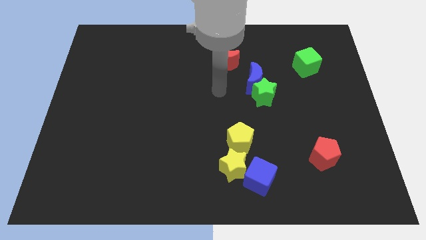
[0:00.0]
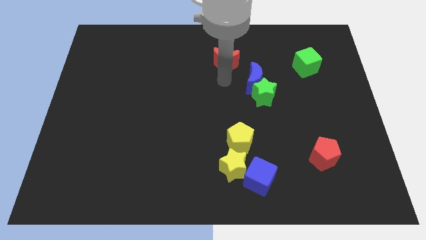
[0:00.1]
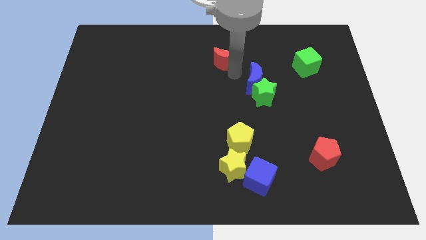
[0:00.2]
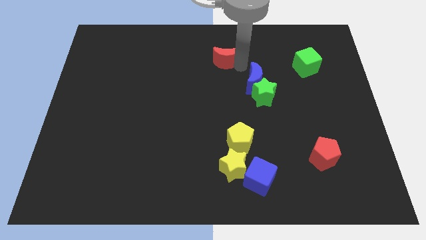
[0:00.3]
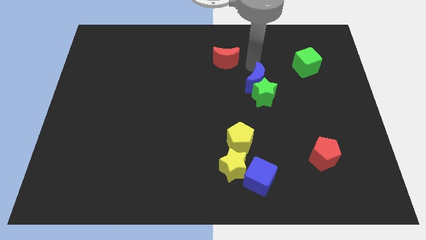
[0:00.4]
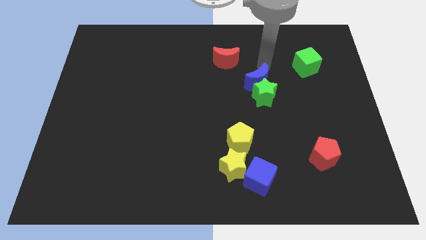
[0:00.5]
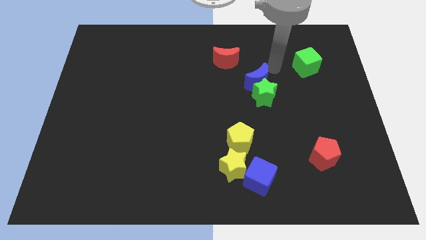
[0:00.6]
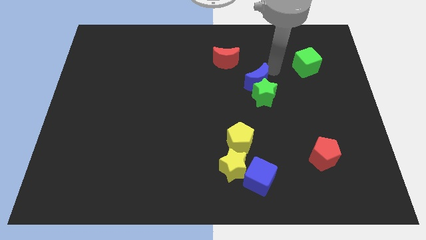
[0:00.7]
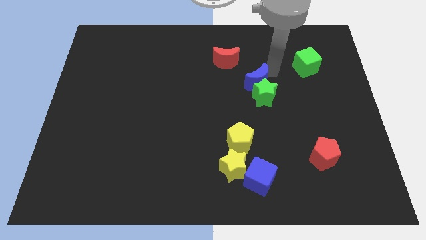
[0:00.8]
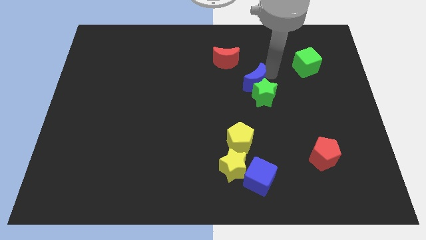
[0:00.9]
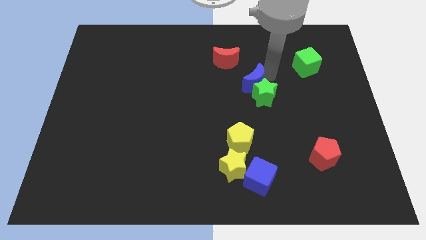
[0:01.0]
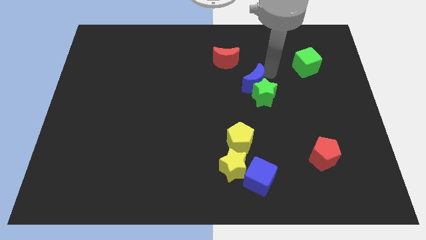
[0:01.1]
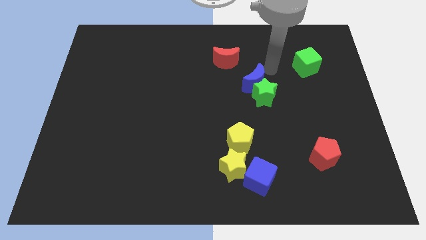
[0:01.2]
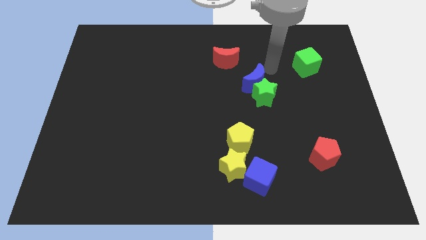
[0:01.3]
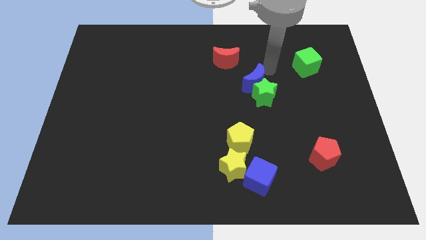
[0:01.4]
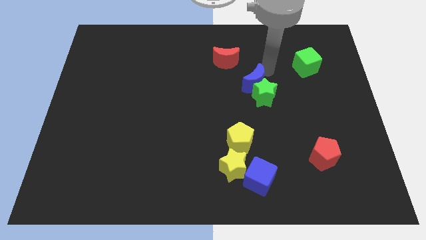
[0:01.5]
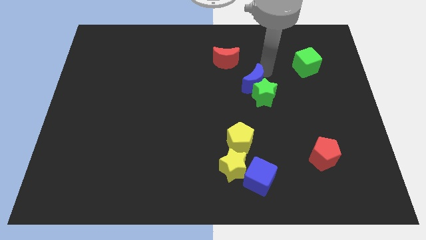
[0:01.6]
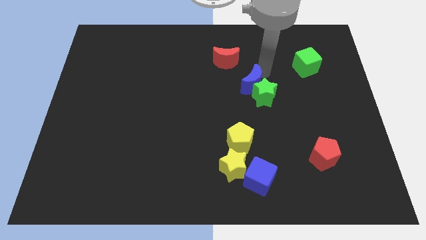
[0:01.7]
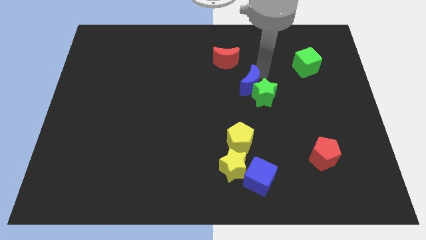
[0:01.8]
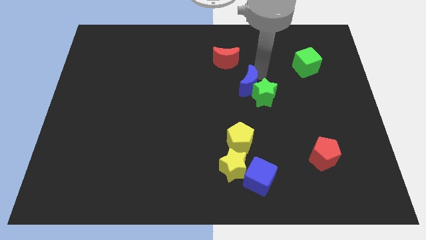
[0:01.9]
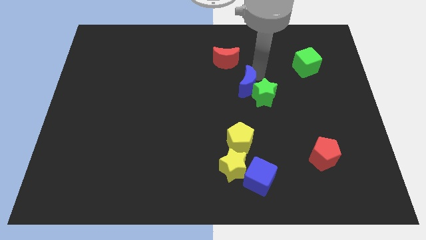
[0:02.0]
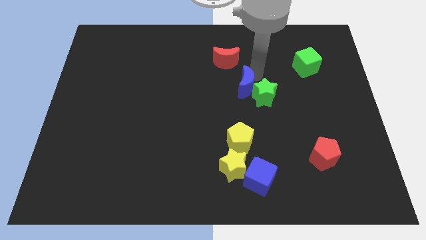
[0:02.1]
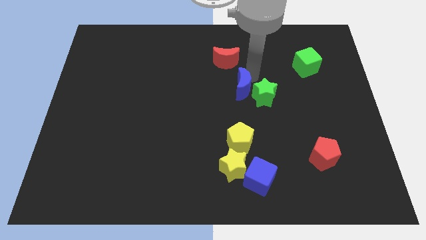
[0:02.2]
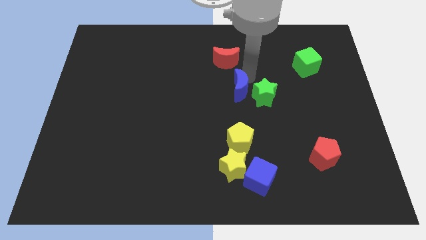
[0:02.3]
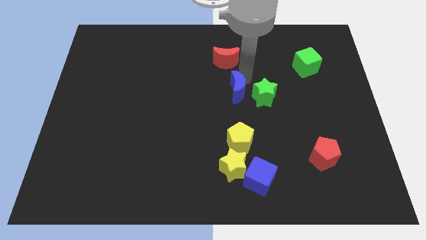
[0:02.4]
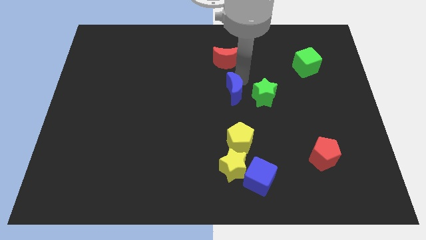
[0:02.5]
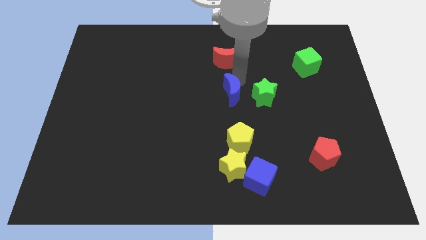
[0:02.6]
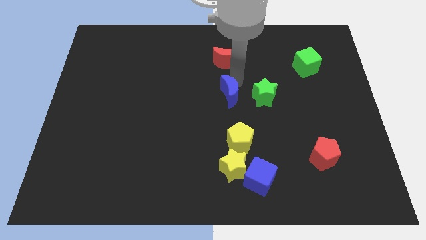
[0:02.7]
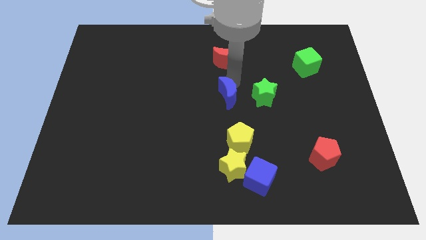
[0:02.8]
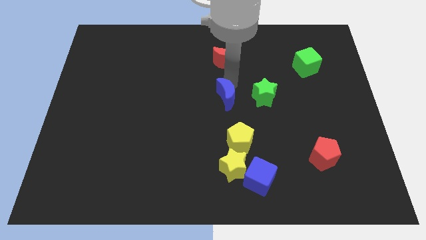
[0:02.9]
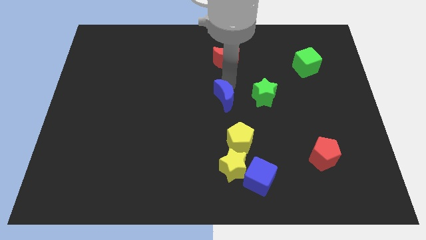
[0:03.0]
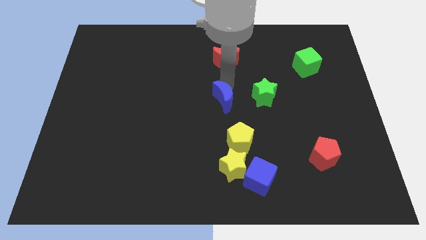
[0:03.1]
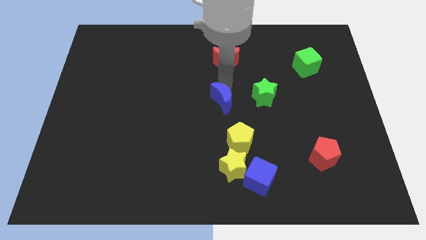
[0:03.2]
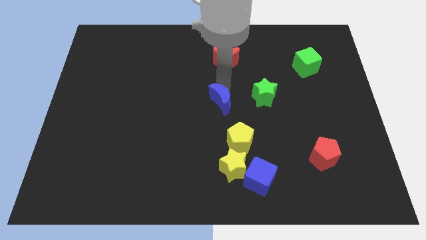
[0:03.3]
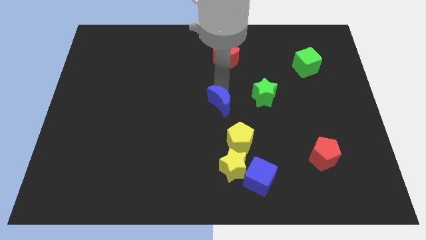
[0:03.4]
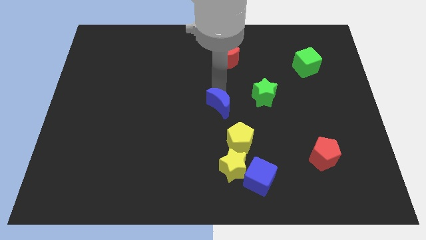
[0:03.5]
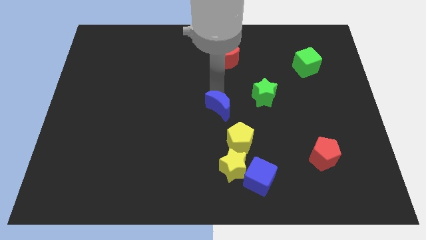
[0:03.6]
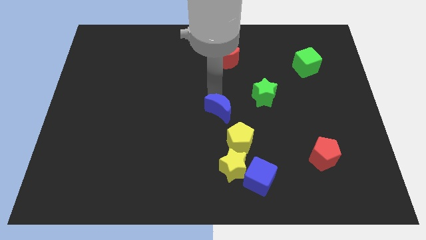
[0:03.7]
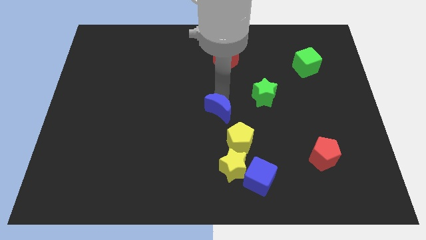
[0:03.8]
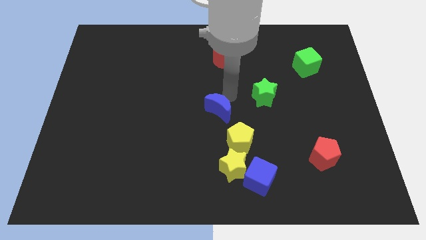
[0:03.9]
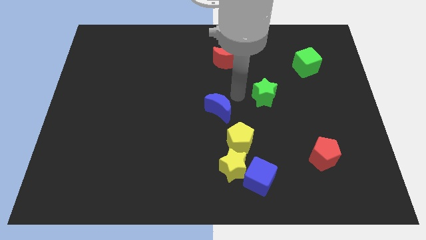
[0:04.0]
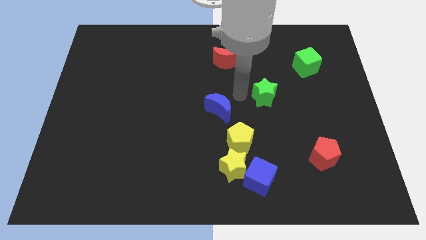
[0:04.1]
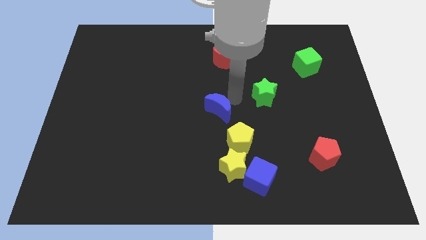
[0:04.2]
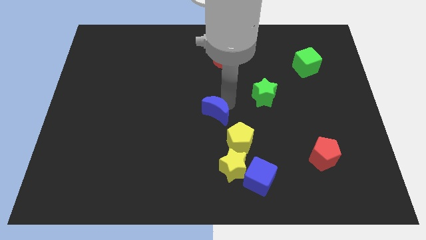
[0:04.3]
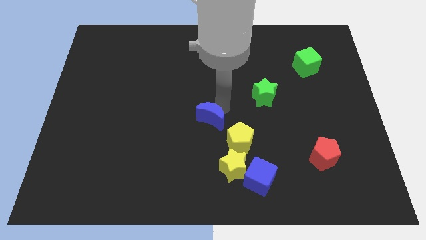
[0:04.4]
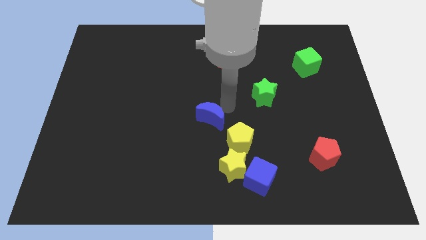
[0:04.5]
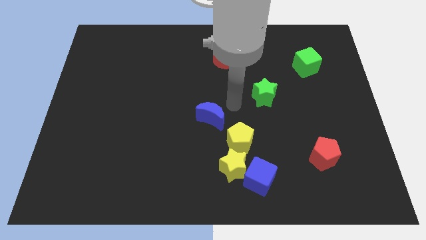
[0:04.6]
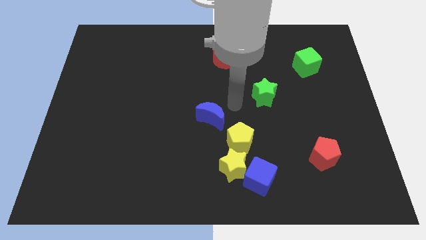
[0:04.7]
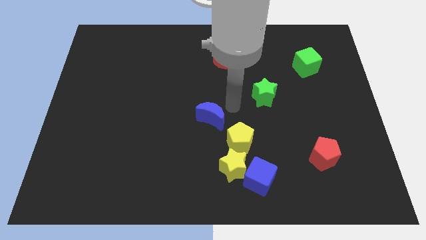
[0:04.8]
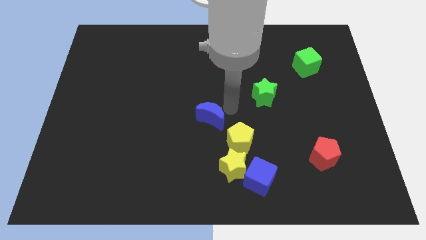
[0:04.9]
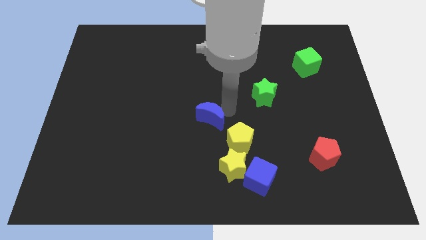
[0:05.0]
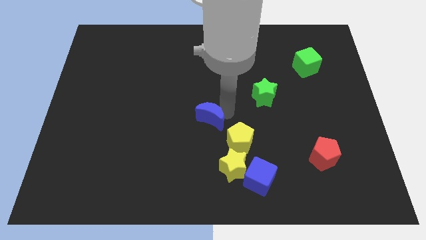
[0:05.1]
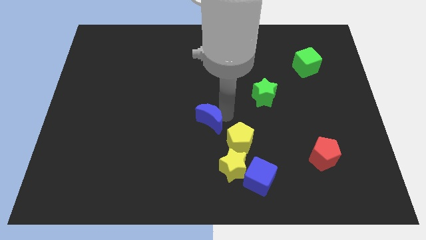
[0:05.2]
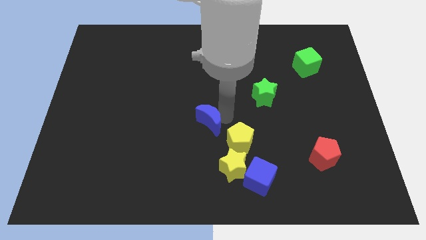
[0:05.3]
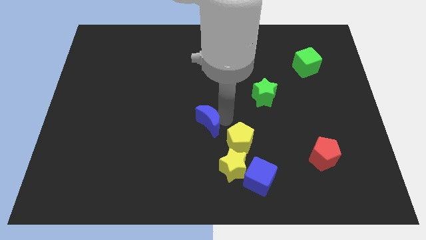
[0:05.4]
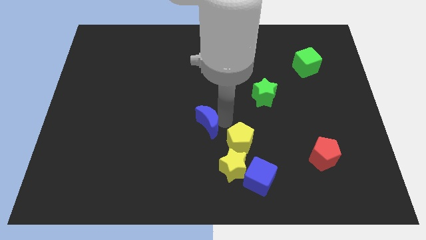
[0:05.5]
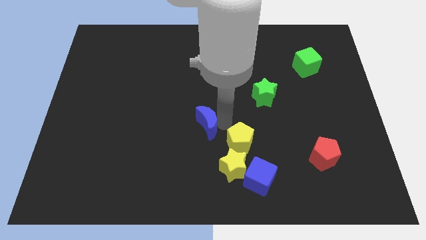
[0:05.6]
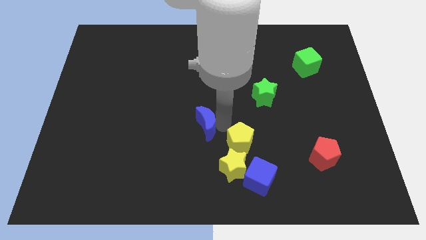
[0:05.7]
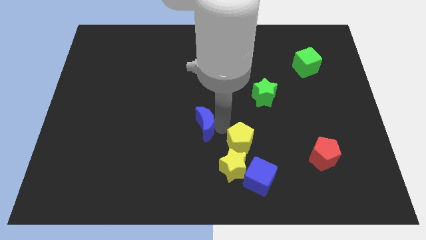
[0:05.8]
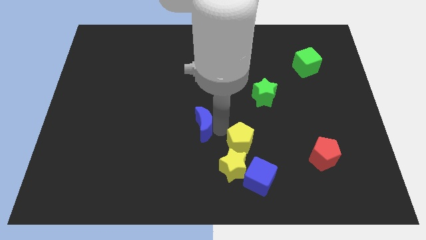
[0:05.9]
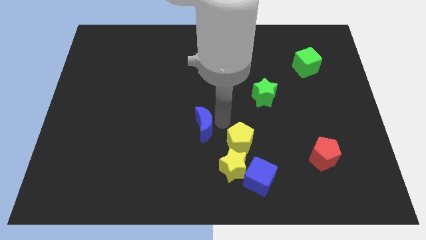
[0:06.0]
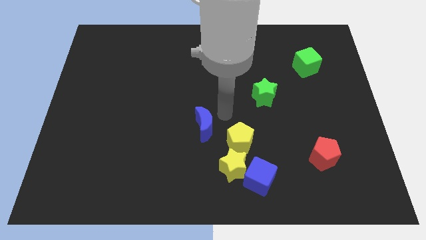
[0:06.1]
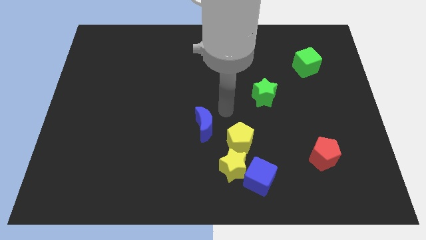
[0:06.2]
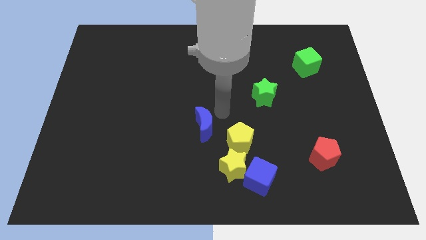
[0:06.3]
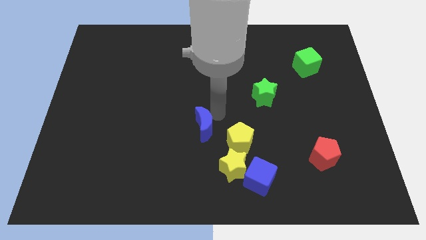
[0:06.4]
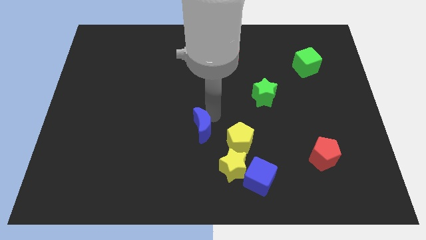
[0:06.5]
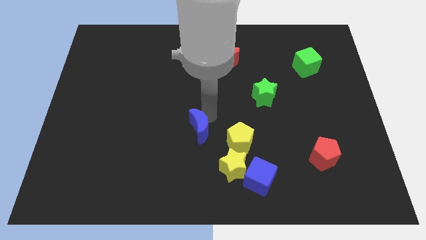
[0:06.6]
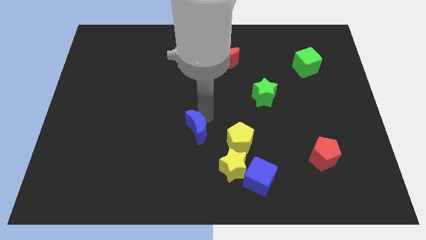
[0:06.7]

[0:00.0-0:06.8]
push the blue moon downwards and to the left diagonally

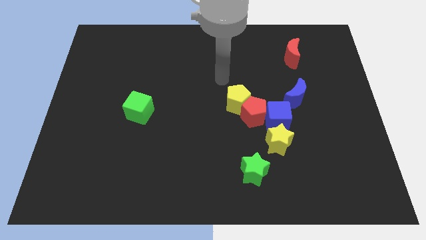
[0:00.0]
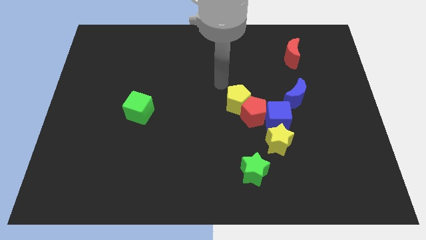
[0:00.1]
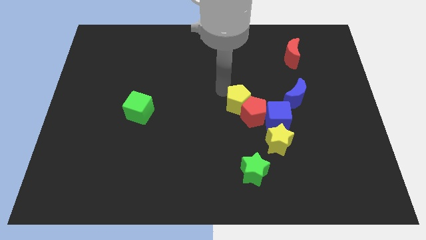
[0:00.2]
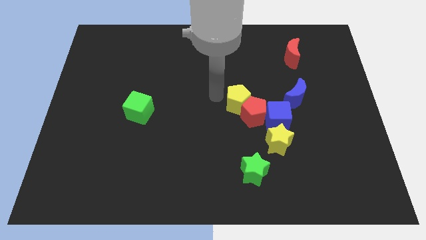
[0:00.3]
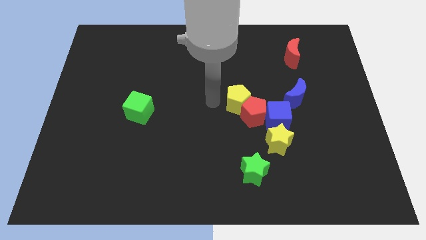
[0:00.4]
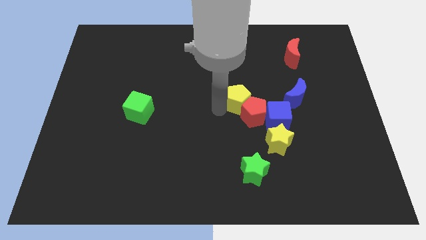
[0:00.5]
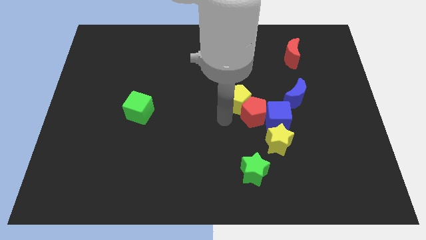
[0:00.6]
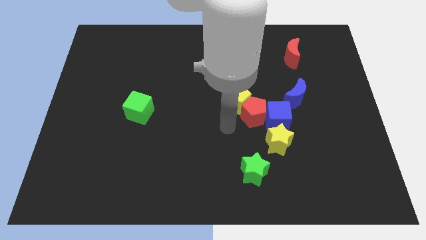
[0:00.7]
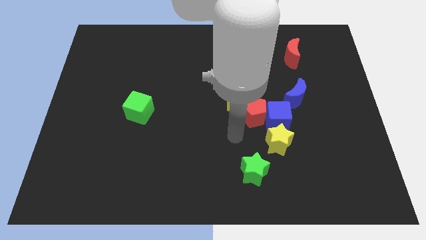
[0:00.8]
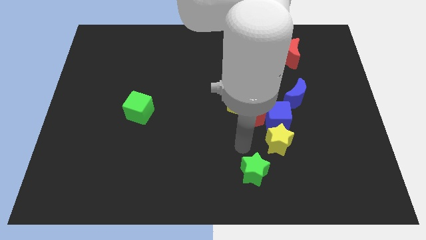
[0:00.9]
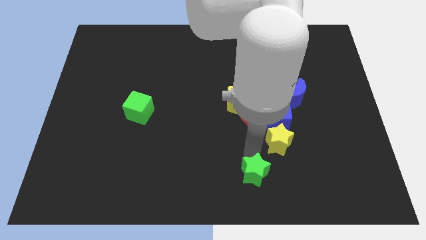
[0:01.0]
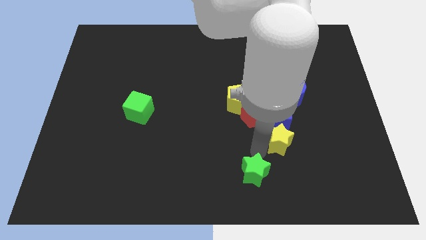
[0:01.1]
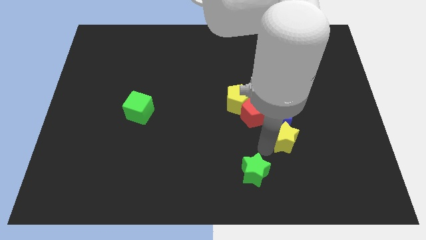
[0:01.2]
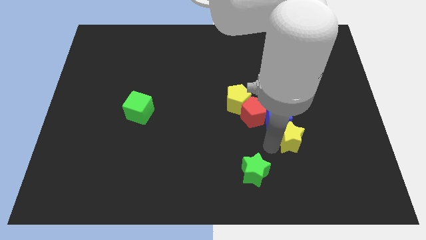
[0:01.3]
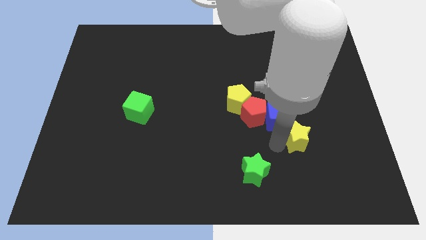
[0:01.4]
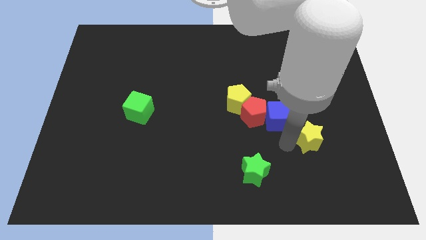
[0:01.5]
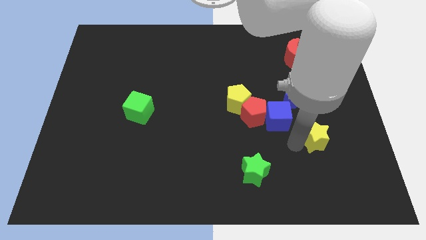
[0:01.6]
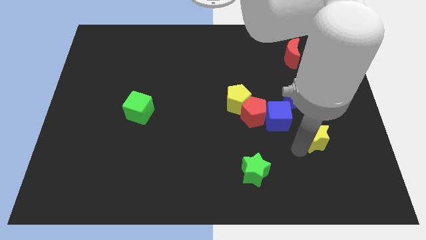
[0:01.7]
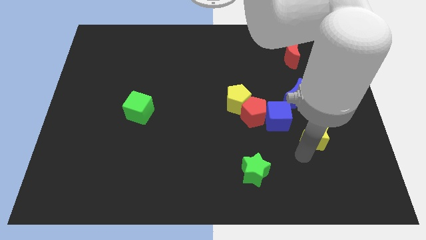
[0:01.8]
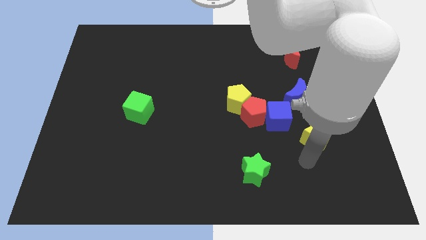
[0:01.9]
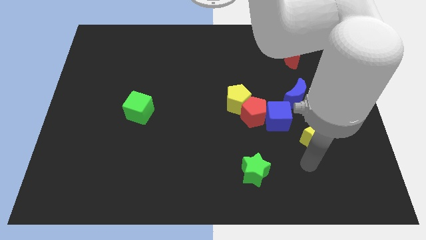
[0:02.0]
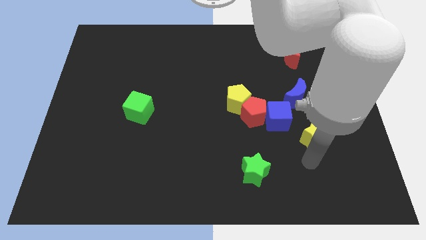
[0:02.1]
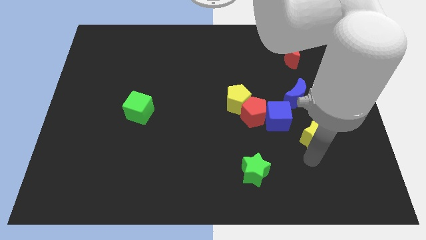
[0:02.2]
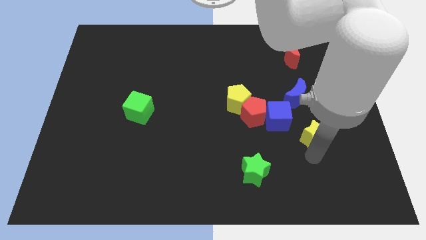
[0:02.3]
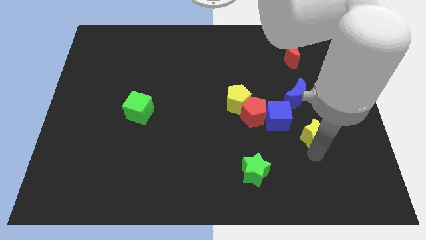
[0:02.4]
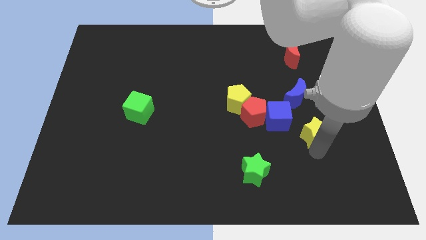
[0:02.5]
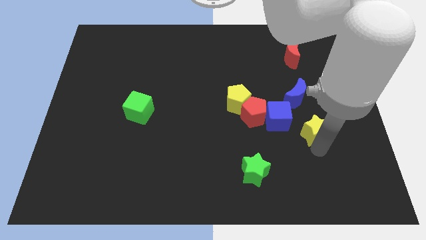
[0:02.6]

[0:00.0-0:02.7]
push the yellow star a little bit diagonally up and to the right
